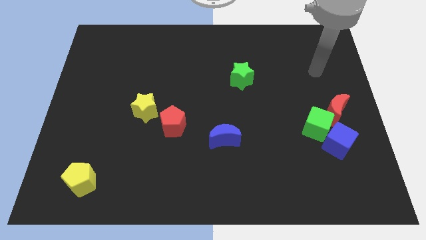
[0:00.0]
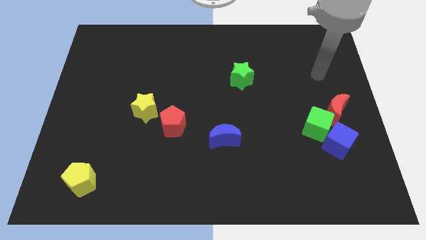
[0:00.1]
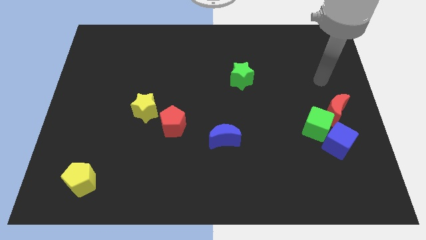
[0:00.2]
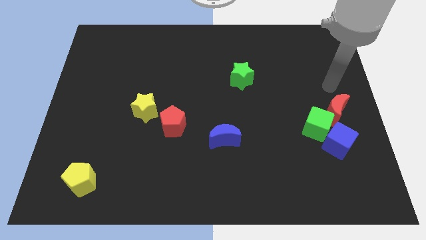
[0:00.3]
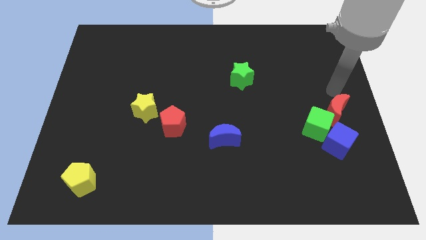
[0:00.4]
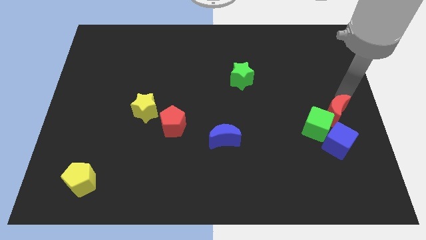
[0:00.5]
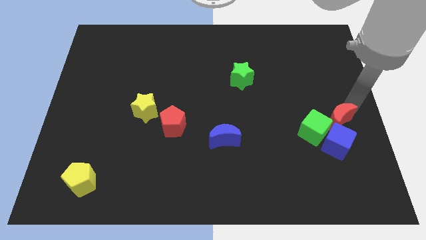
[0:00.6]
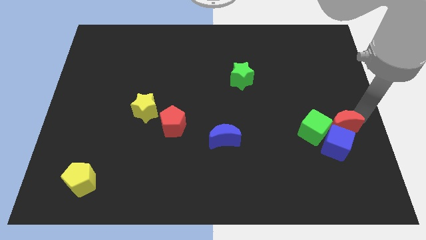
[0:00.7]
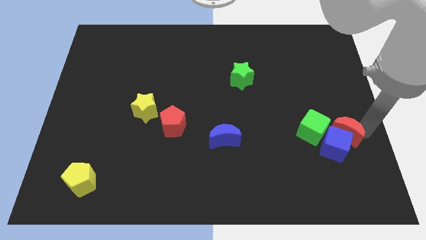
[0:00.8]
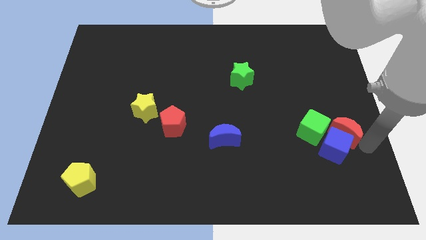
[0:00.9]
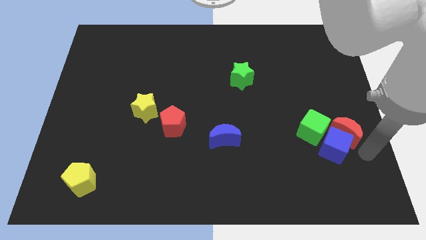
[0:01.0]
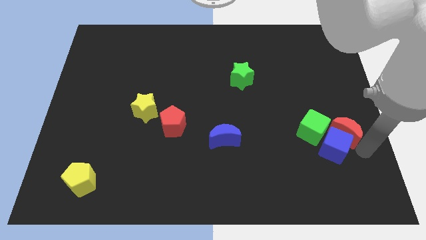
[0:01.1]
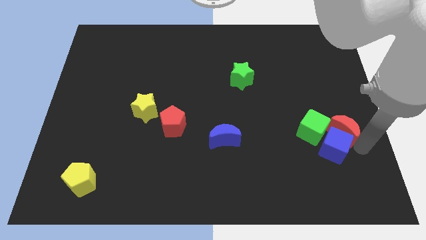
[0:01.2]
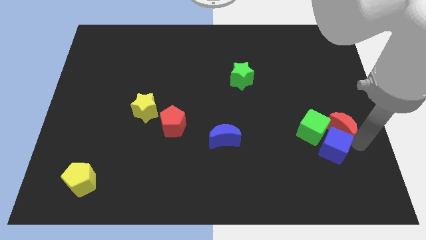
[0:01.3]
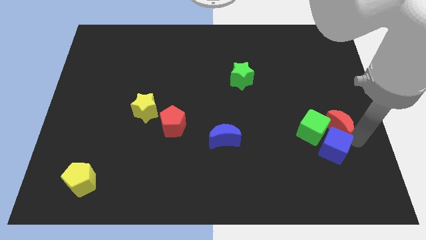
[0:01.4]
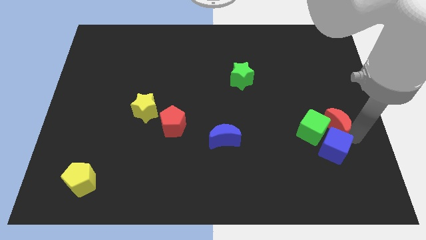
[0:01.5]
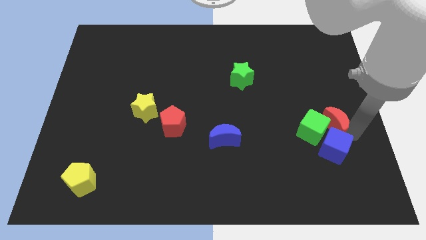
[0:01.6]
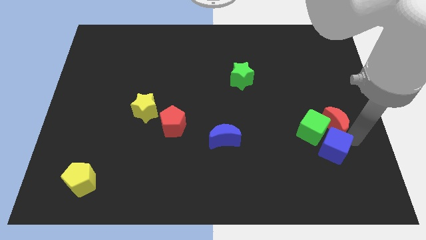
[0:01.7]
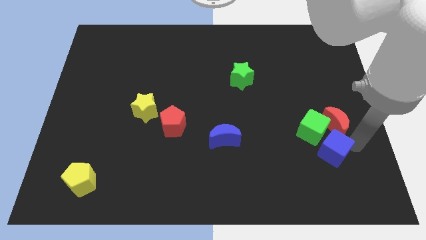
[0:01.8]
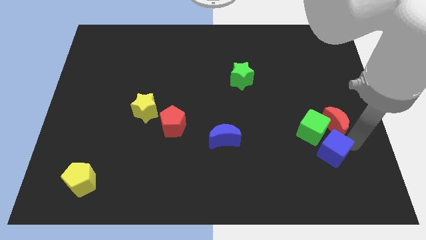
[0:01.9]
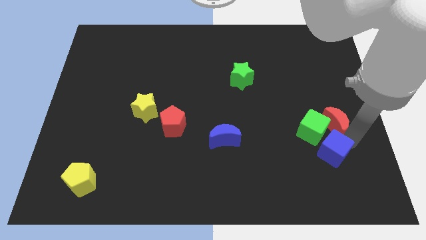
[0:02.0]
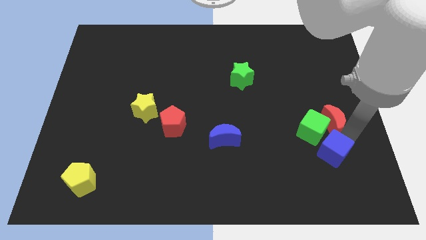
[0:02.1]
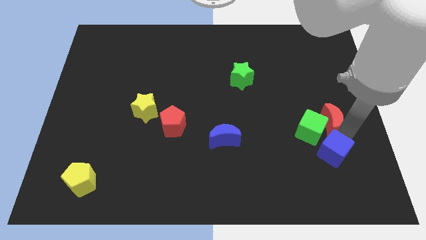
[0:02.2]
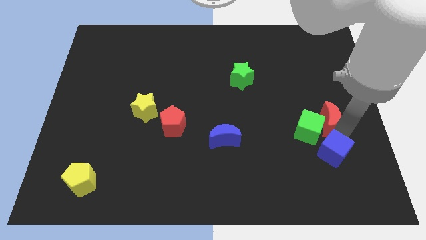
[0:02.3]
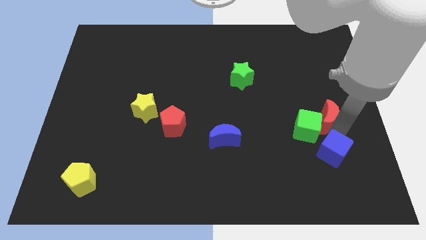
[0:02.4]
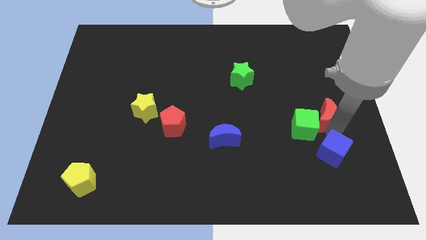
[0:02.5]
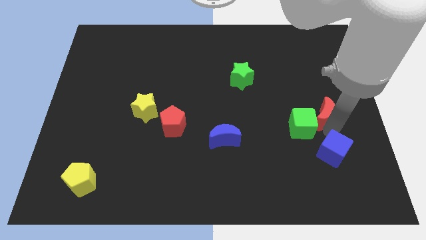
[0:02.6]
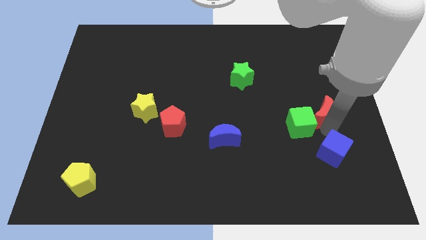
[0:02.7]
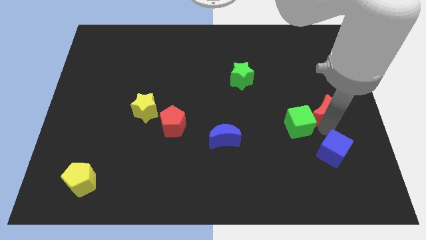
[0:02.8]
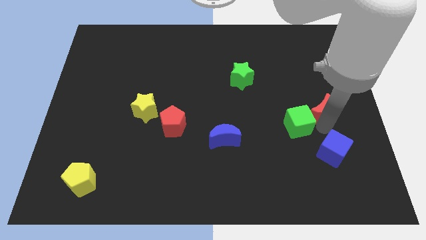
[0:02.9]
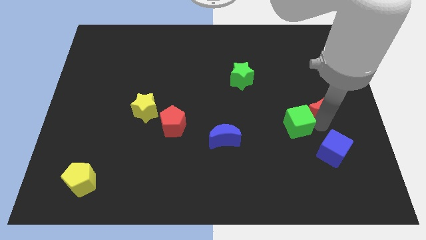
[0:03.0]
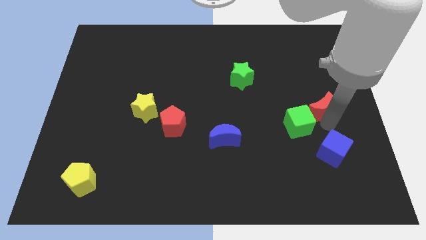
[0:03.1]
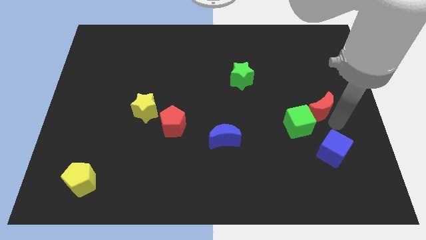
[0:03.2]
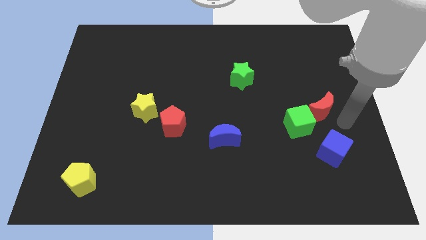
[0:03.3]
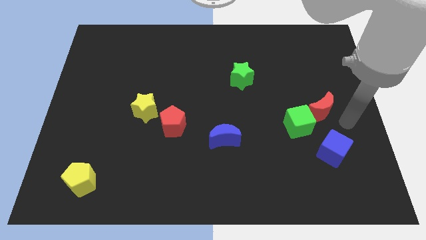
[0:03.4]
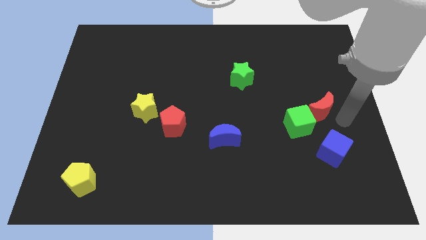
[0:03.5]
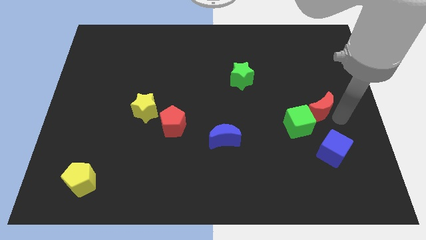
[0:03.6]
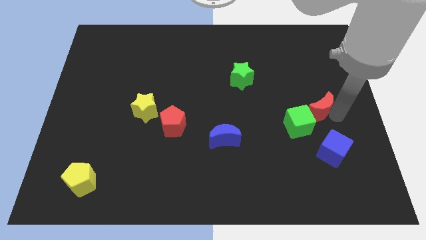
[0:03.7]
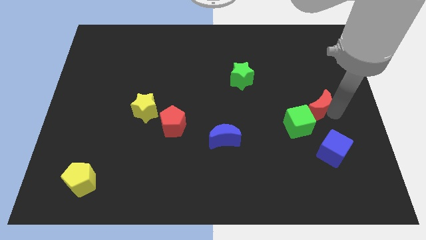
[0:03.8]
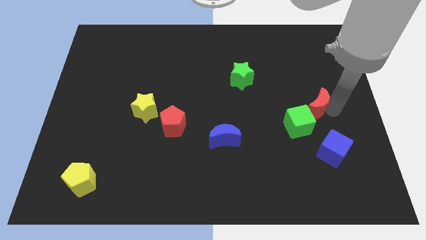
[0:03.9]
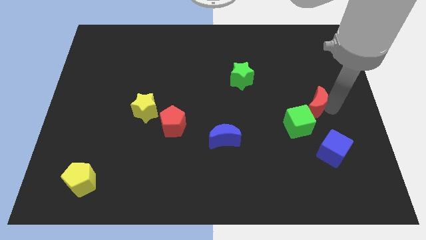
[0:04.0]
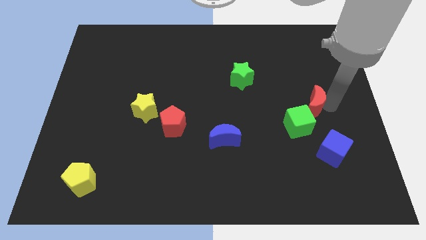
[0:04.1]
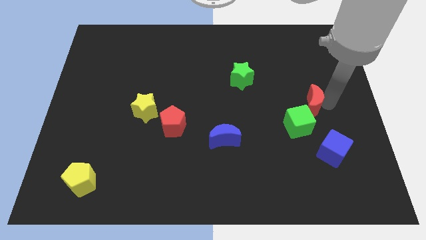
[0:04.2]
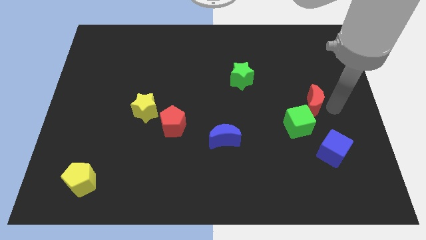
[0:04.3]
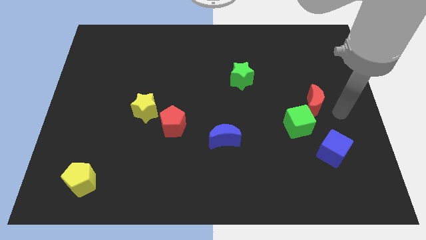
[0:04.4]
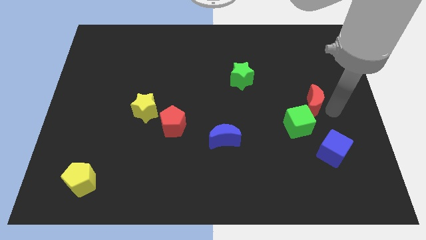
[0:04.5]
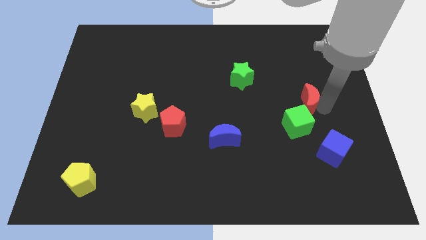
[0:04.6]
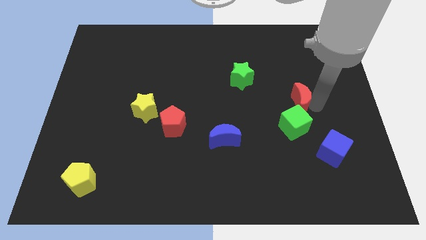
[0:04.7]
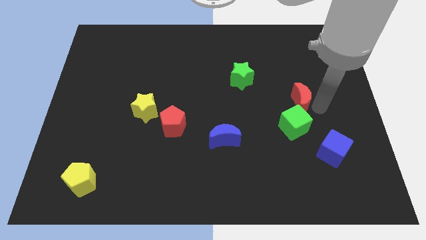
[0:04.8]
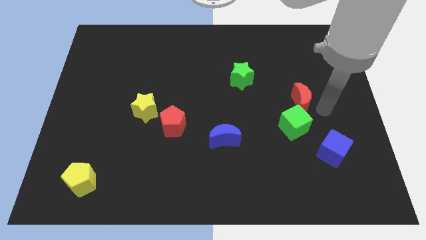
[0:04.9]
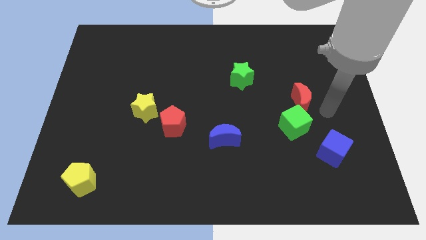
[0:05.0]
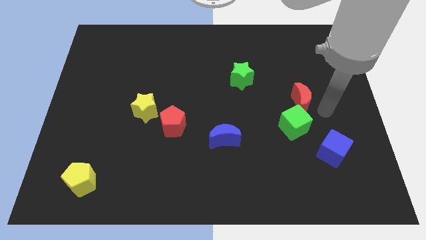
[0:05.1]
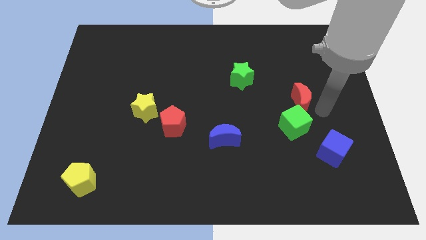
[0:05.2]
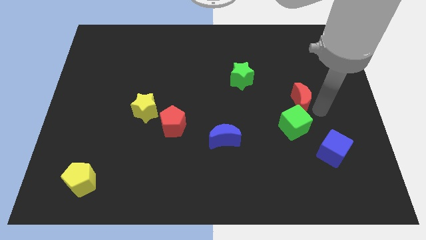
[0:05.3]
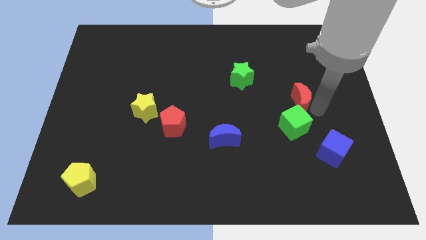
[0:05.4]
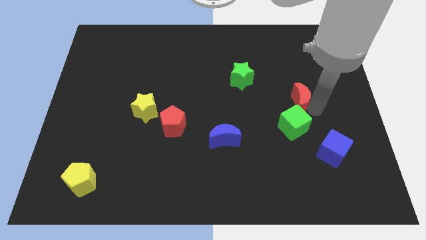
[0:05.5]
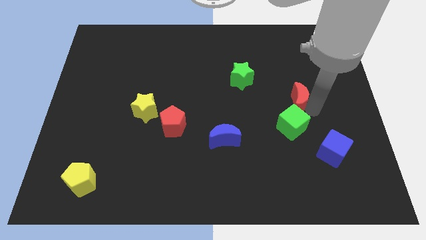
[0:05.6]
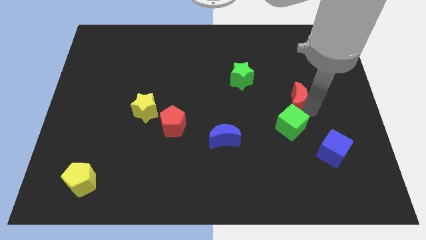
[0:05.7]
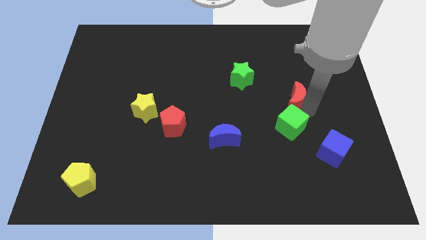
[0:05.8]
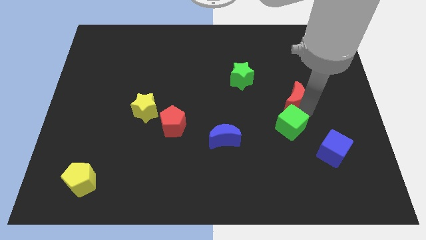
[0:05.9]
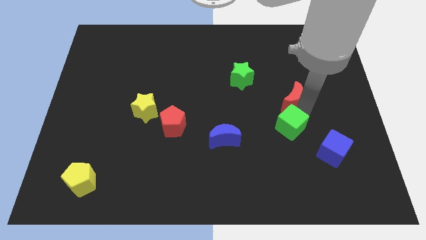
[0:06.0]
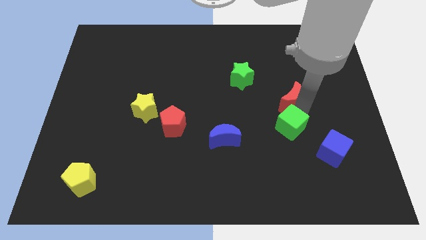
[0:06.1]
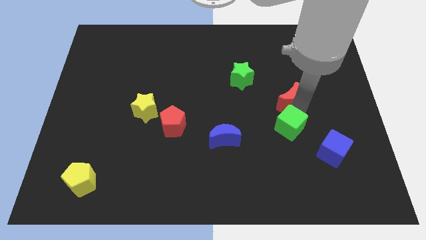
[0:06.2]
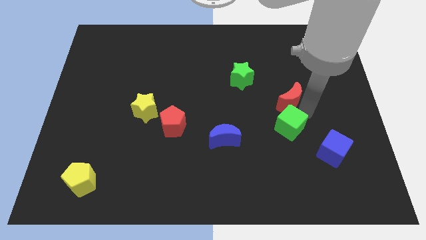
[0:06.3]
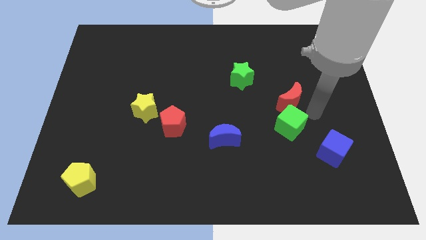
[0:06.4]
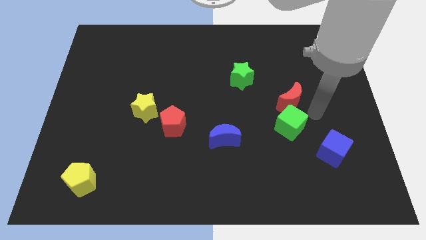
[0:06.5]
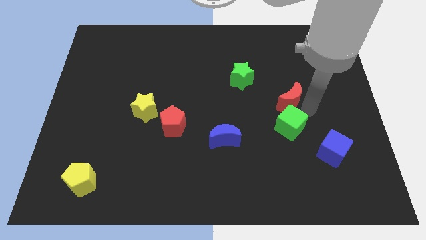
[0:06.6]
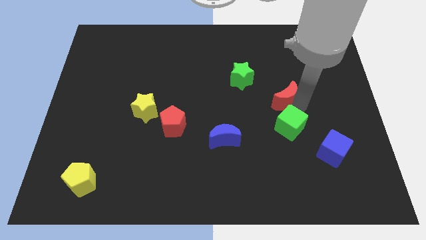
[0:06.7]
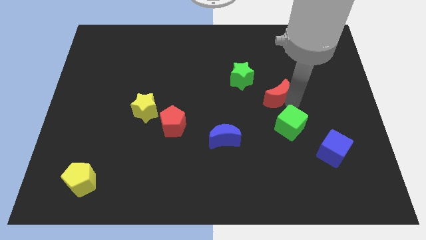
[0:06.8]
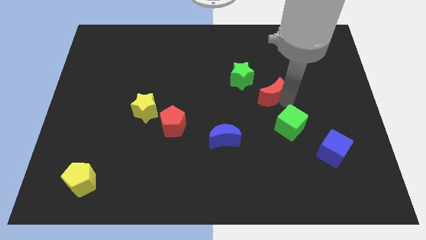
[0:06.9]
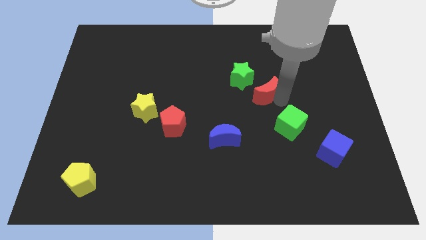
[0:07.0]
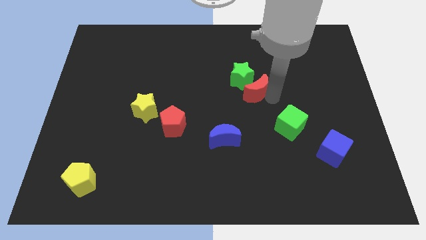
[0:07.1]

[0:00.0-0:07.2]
put the red moon close to the green star

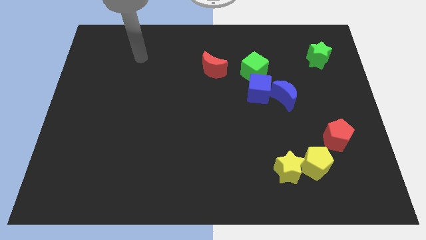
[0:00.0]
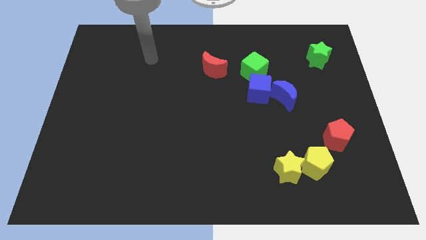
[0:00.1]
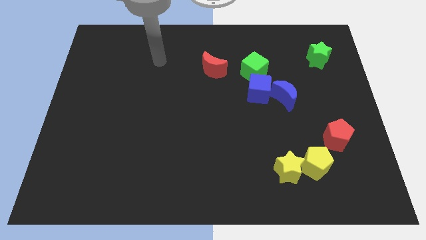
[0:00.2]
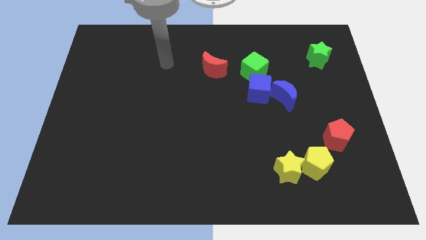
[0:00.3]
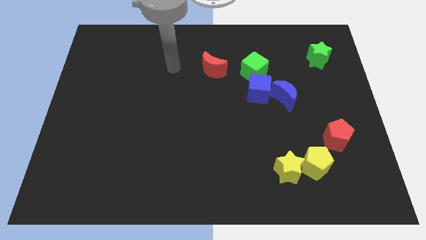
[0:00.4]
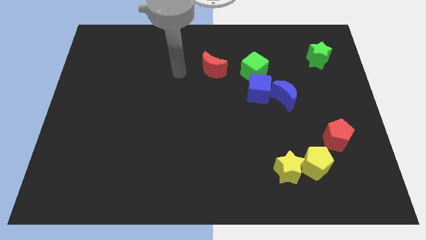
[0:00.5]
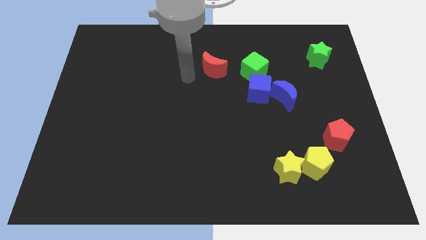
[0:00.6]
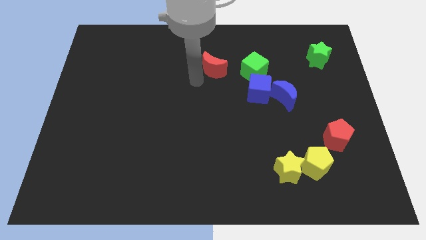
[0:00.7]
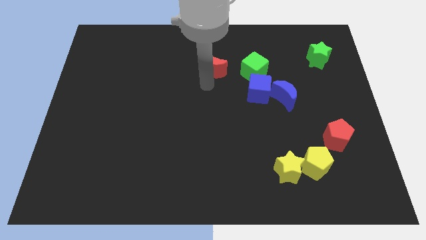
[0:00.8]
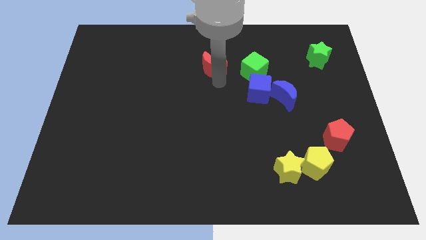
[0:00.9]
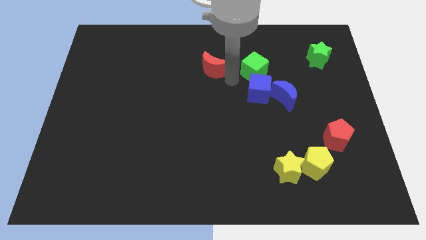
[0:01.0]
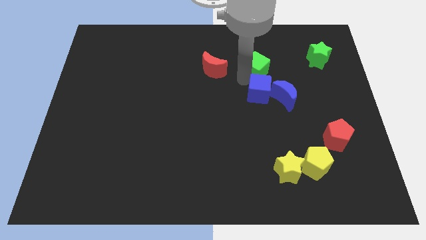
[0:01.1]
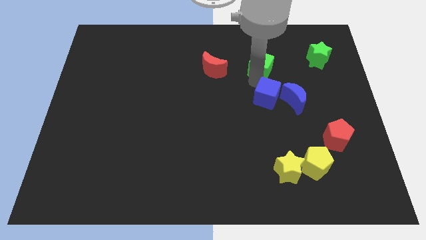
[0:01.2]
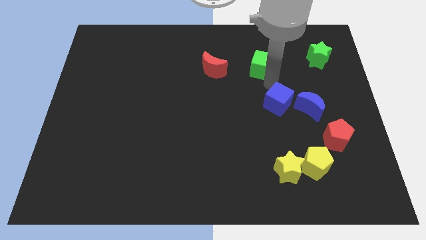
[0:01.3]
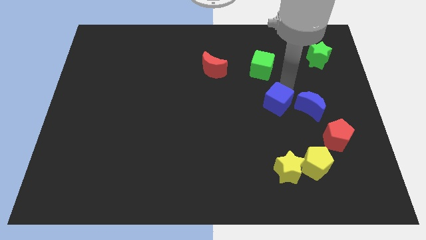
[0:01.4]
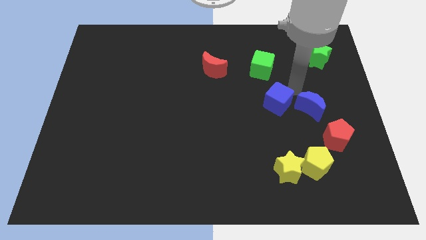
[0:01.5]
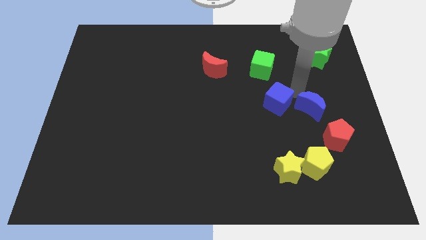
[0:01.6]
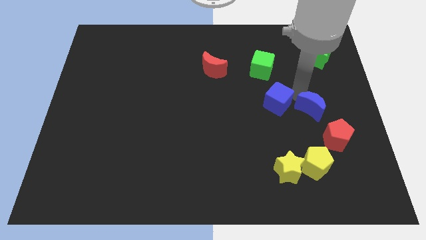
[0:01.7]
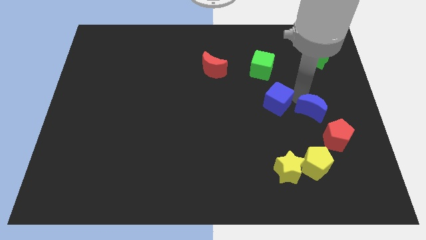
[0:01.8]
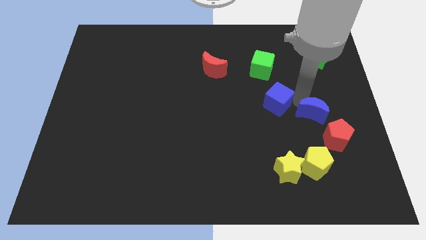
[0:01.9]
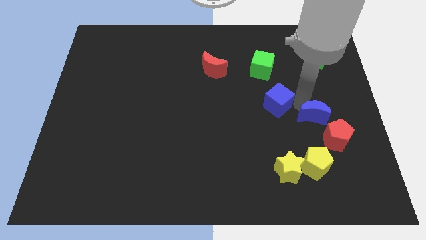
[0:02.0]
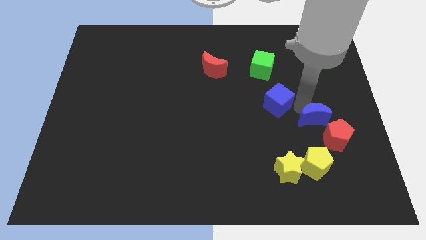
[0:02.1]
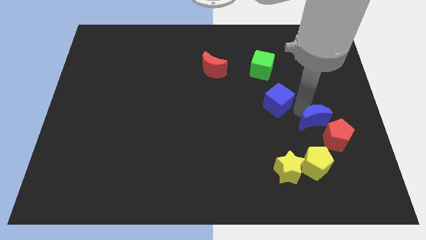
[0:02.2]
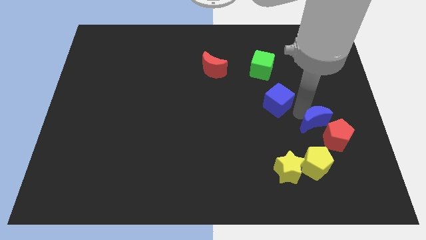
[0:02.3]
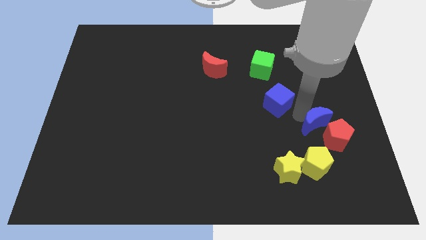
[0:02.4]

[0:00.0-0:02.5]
push the blue moon to the red pentagon
